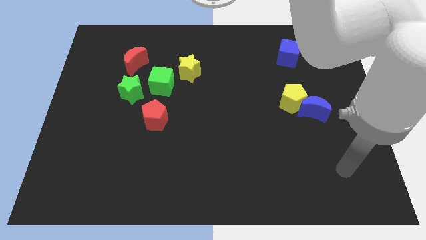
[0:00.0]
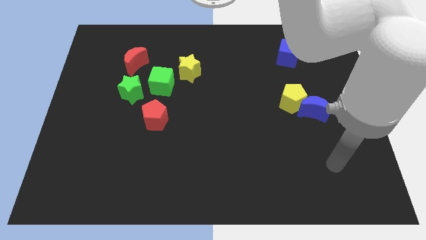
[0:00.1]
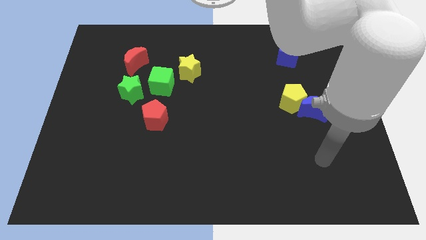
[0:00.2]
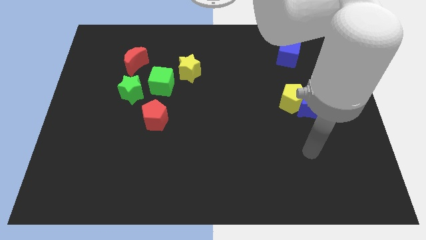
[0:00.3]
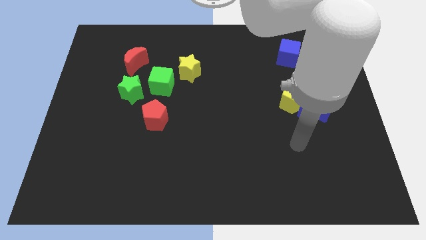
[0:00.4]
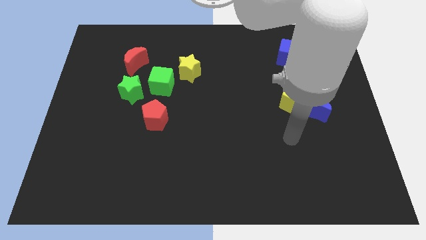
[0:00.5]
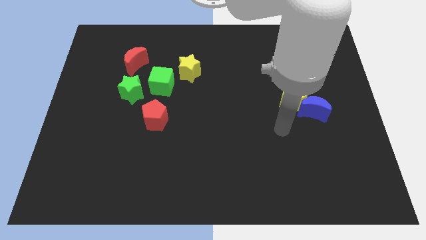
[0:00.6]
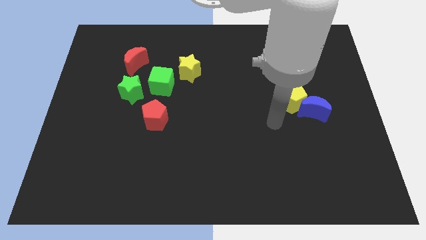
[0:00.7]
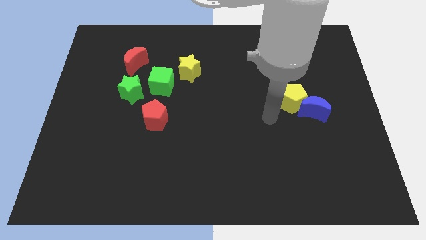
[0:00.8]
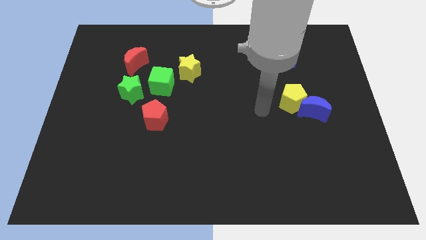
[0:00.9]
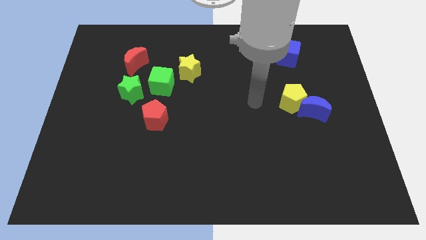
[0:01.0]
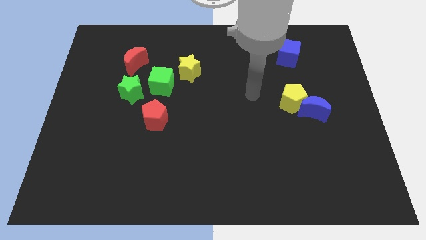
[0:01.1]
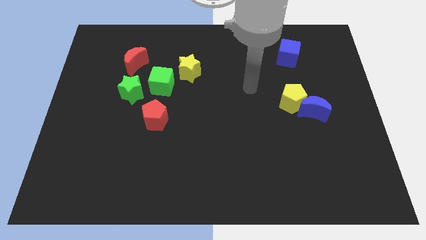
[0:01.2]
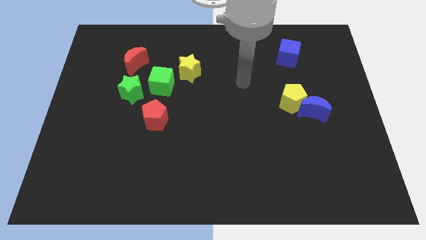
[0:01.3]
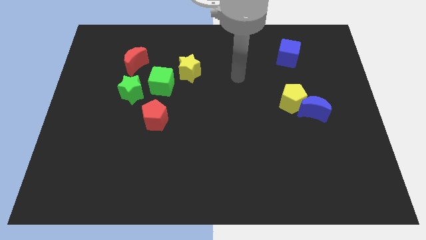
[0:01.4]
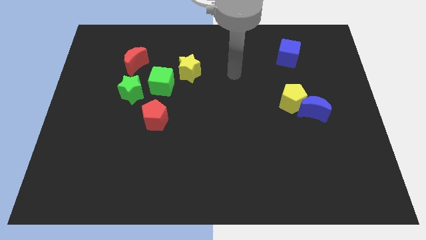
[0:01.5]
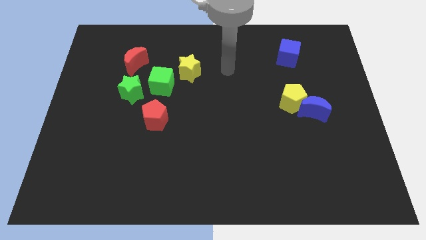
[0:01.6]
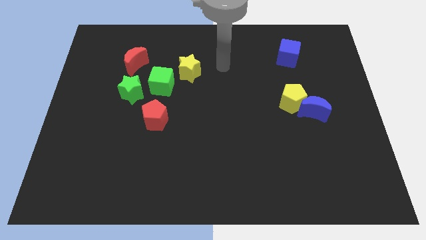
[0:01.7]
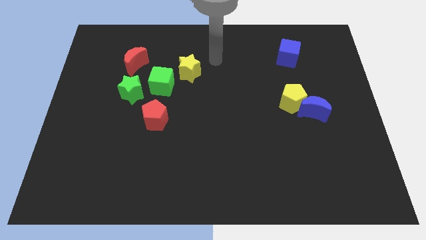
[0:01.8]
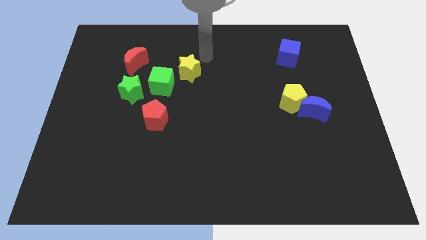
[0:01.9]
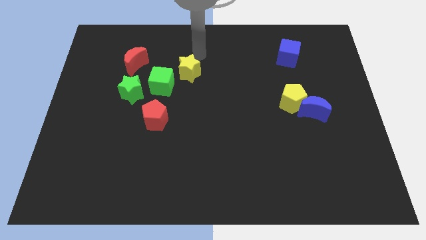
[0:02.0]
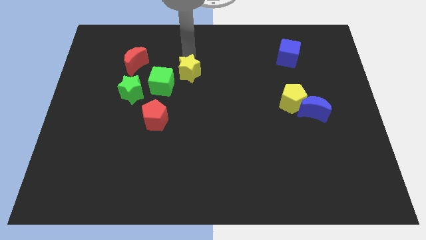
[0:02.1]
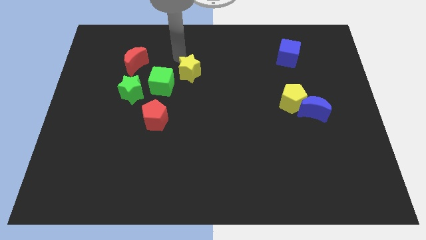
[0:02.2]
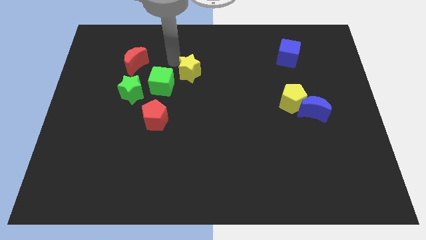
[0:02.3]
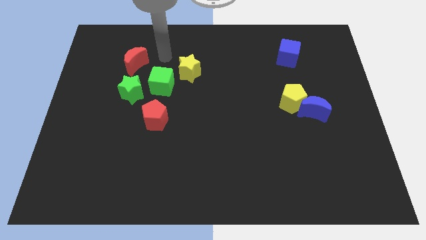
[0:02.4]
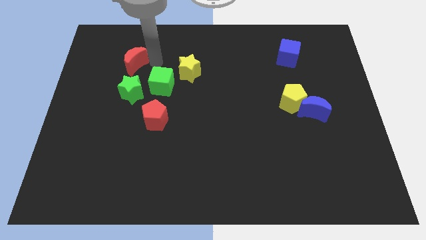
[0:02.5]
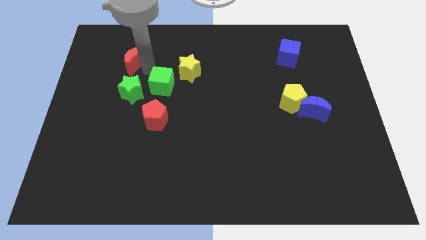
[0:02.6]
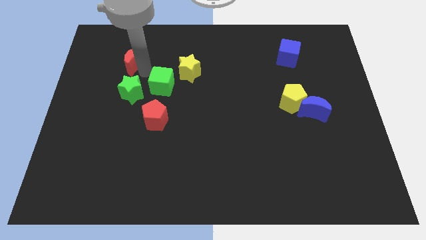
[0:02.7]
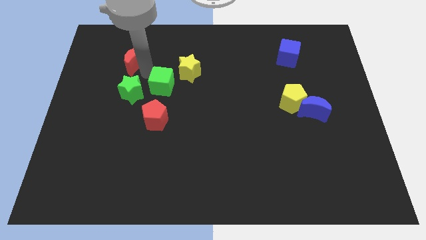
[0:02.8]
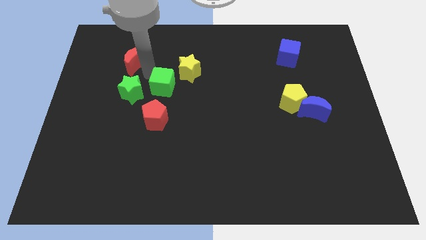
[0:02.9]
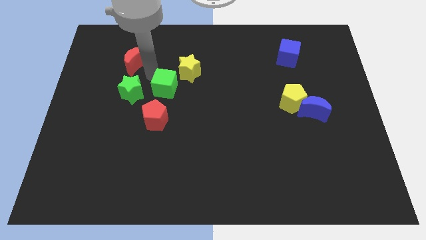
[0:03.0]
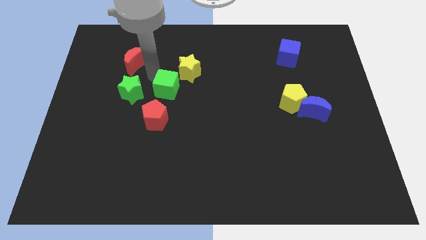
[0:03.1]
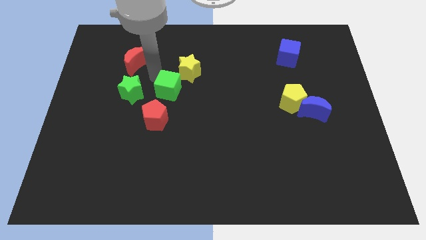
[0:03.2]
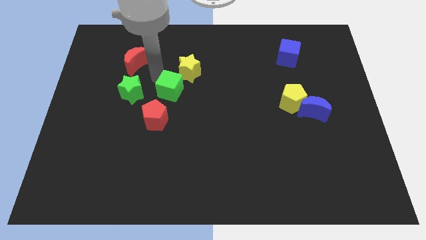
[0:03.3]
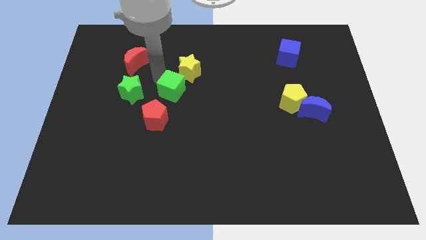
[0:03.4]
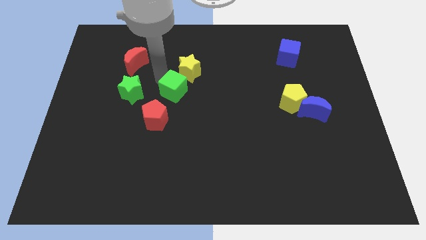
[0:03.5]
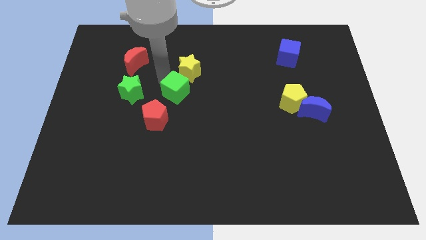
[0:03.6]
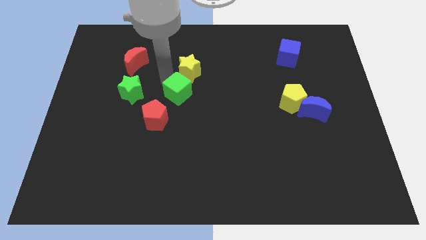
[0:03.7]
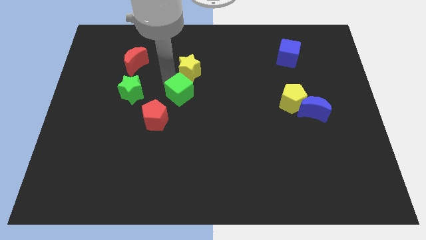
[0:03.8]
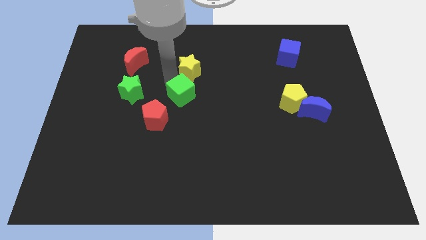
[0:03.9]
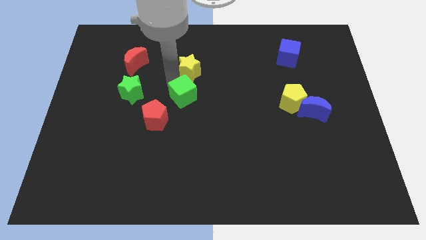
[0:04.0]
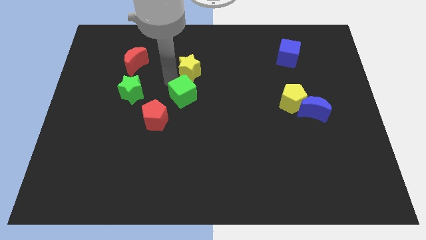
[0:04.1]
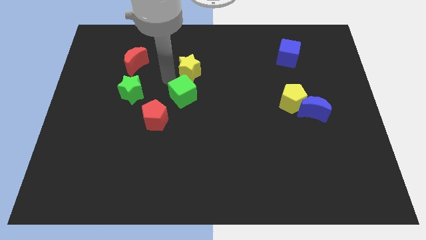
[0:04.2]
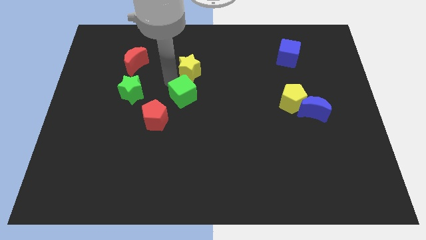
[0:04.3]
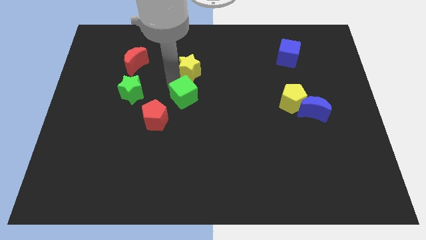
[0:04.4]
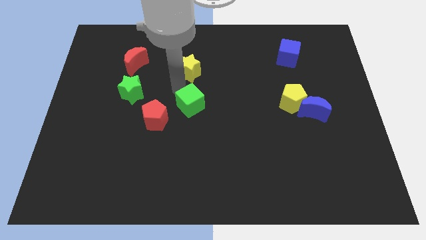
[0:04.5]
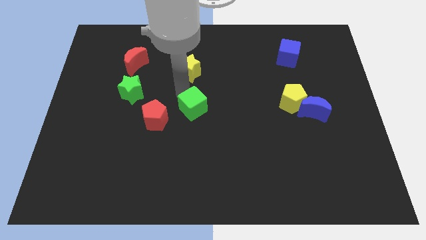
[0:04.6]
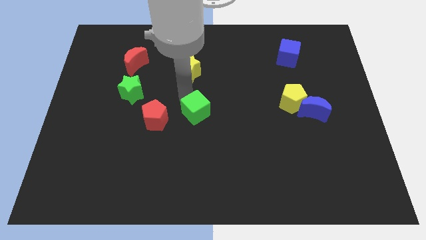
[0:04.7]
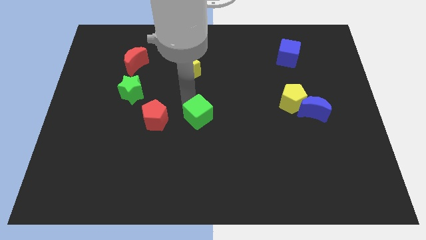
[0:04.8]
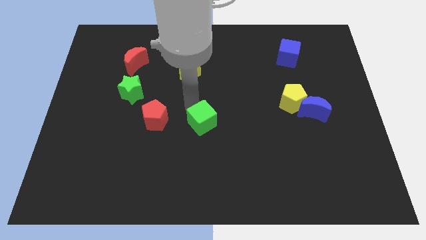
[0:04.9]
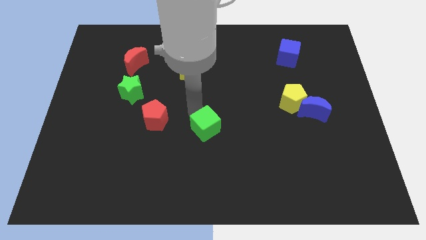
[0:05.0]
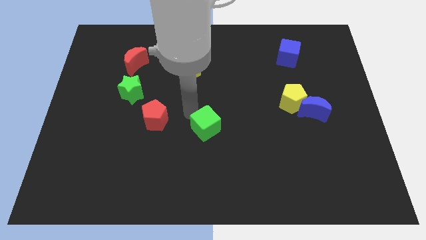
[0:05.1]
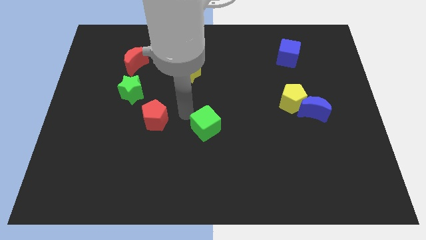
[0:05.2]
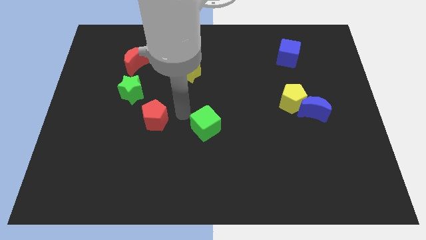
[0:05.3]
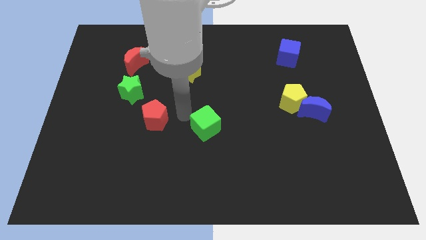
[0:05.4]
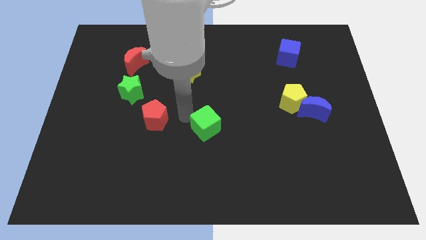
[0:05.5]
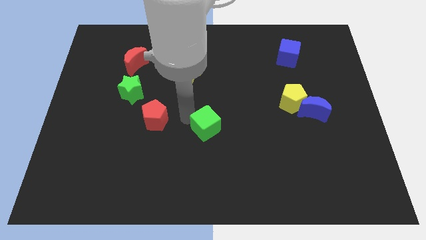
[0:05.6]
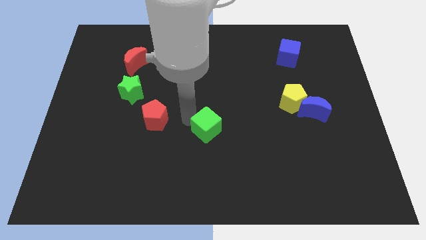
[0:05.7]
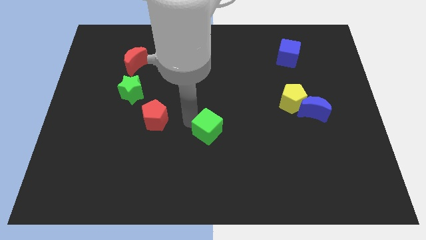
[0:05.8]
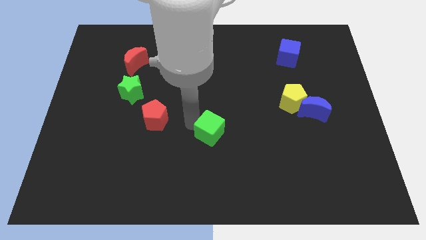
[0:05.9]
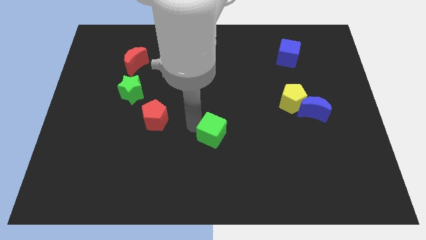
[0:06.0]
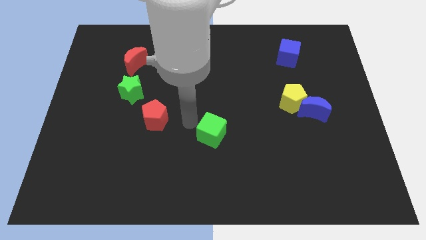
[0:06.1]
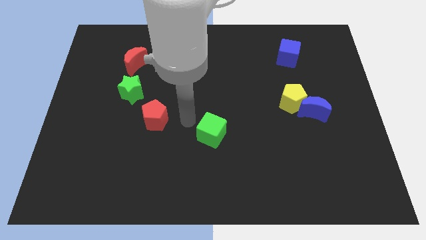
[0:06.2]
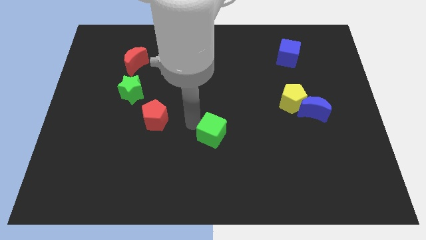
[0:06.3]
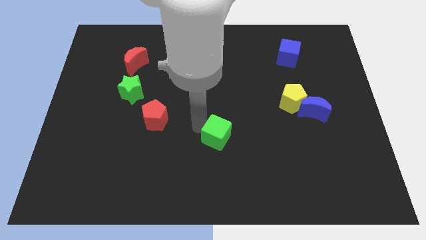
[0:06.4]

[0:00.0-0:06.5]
move the green cube down and then right

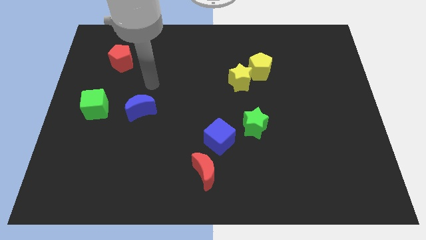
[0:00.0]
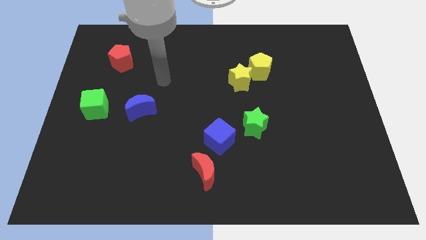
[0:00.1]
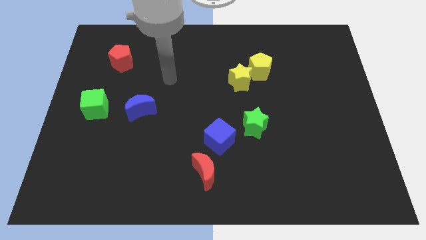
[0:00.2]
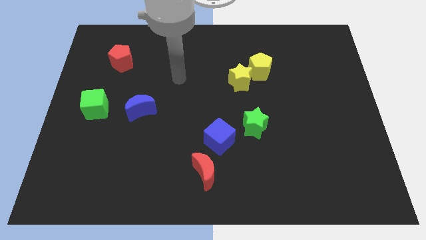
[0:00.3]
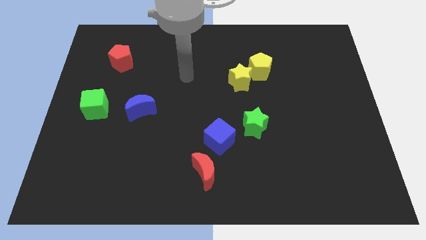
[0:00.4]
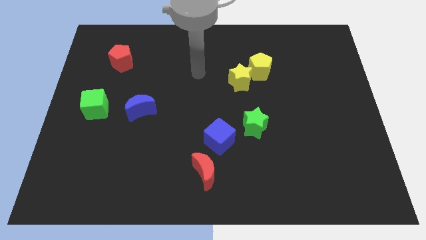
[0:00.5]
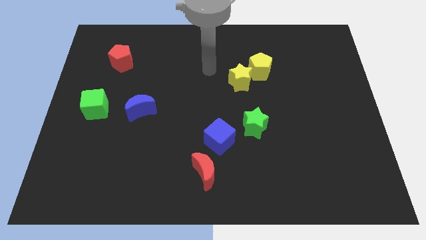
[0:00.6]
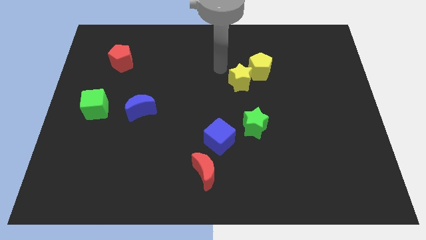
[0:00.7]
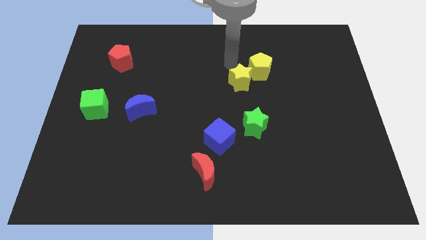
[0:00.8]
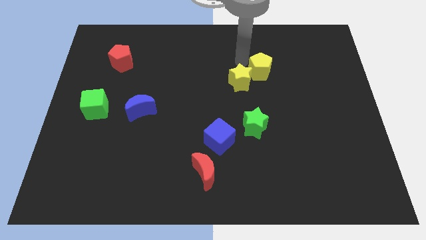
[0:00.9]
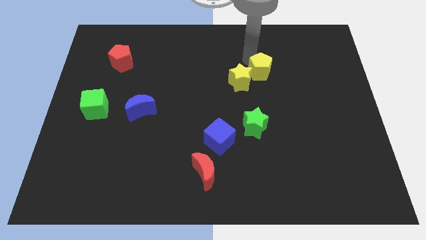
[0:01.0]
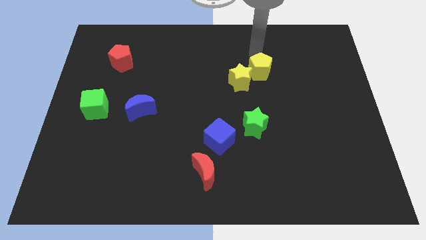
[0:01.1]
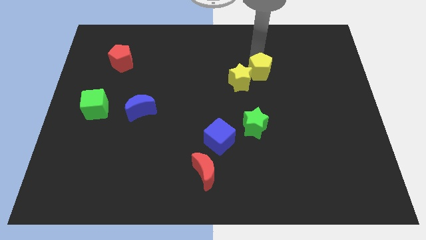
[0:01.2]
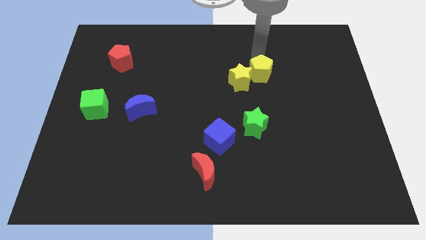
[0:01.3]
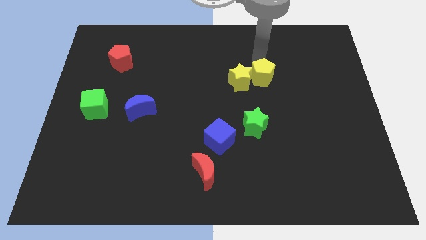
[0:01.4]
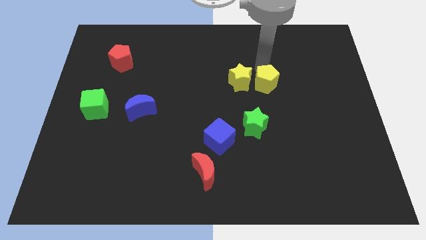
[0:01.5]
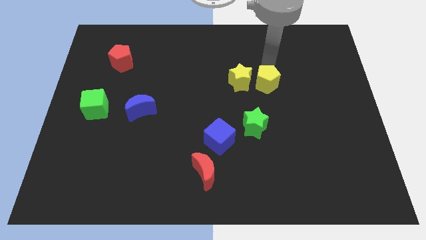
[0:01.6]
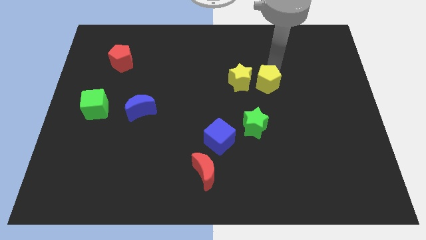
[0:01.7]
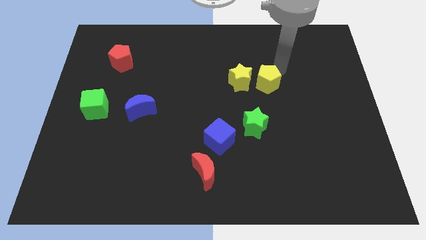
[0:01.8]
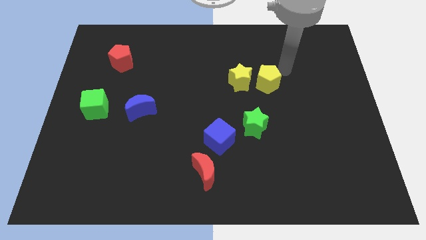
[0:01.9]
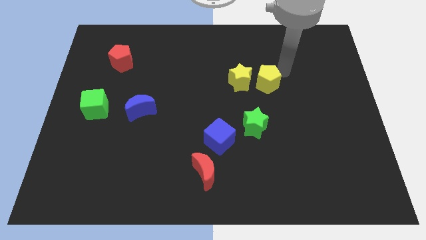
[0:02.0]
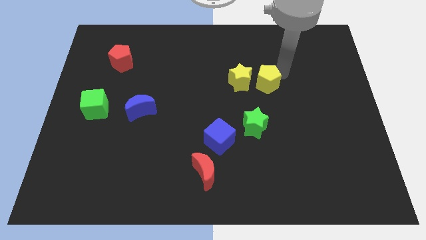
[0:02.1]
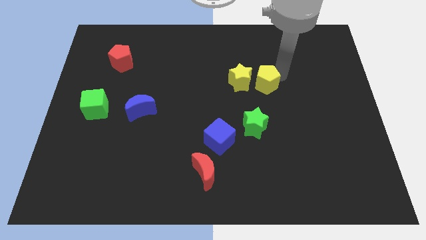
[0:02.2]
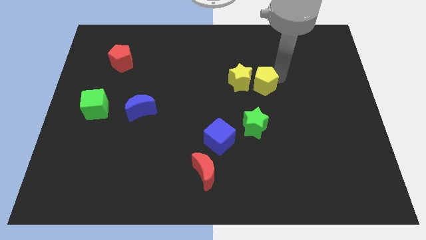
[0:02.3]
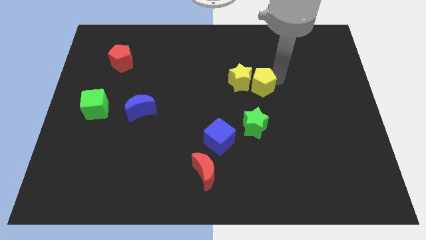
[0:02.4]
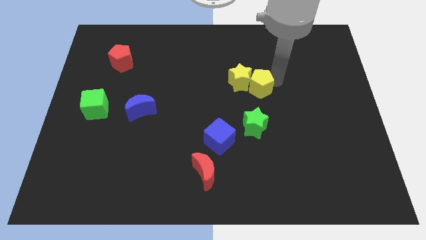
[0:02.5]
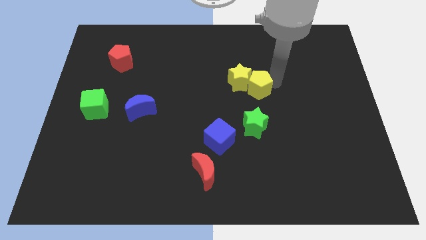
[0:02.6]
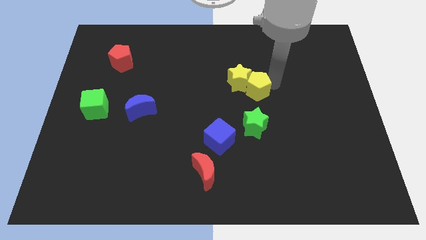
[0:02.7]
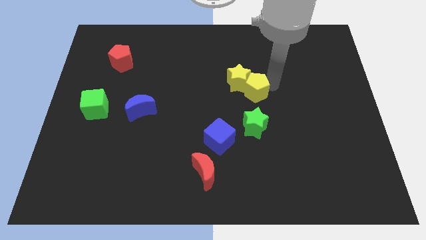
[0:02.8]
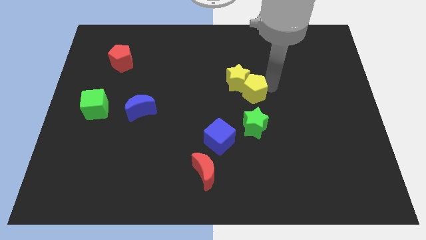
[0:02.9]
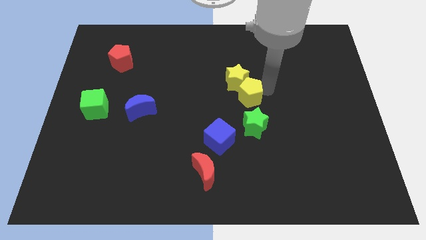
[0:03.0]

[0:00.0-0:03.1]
push the yellow pentagon downwards and to the left diagonally a bit
